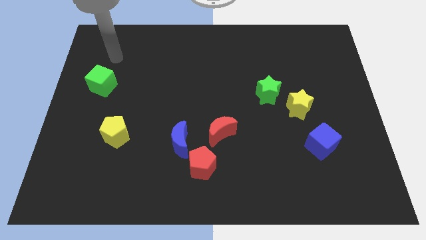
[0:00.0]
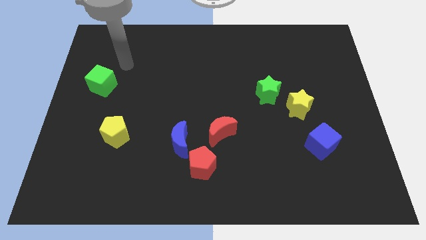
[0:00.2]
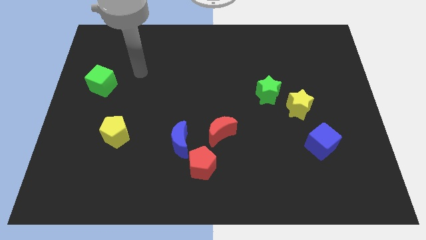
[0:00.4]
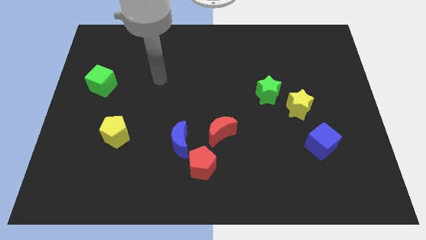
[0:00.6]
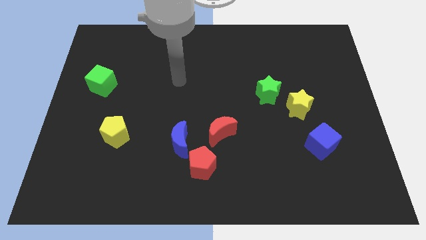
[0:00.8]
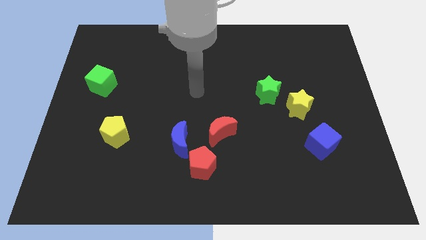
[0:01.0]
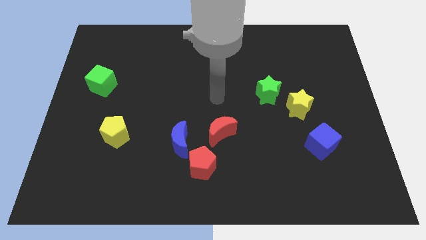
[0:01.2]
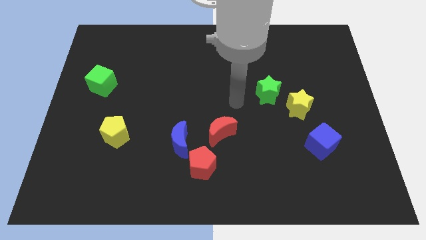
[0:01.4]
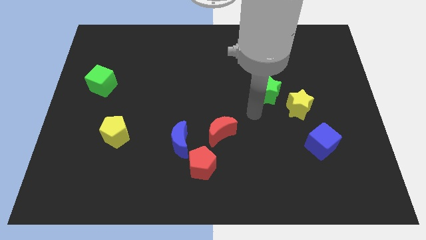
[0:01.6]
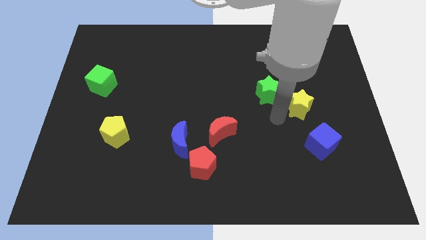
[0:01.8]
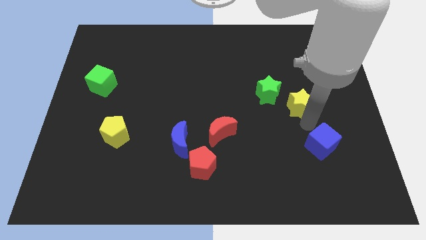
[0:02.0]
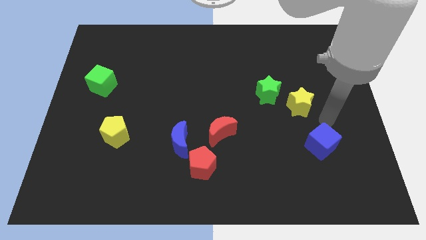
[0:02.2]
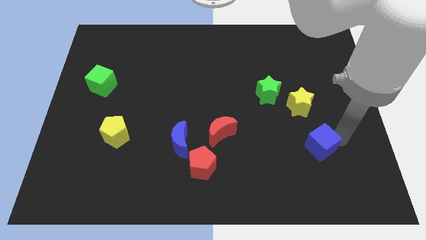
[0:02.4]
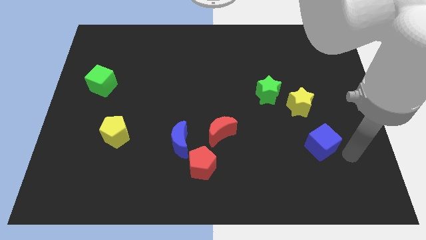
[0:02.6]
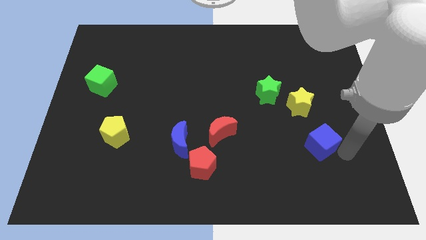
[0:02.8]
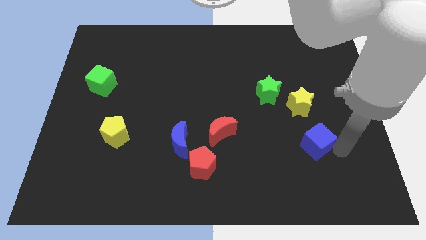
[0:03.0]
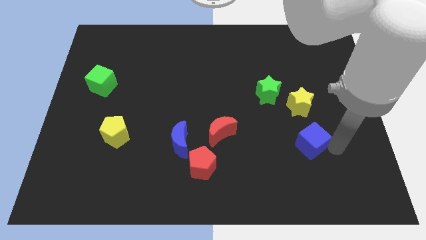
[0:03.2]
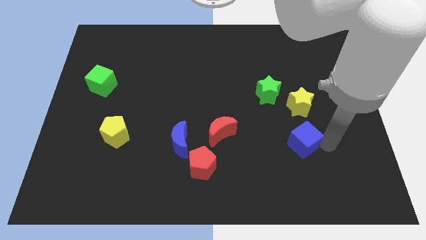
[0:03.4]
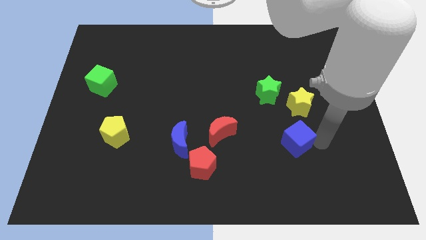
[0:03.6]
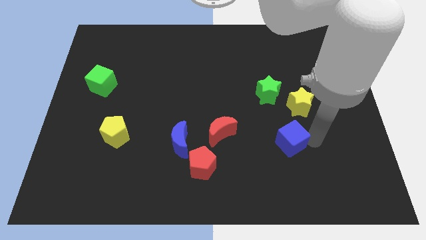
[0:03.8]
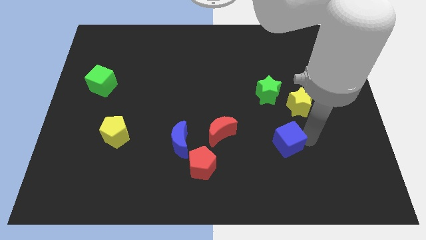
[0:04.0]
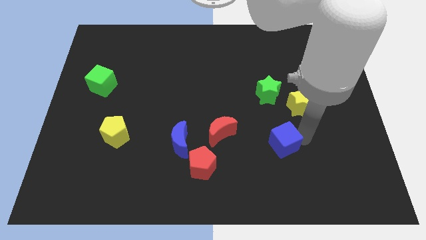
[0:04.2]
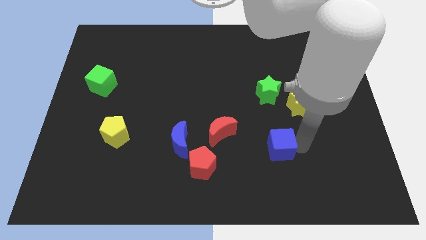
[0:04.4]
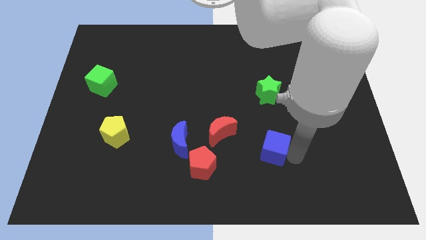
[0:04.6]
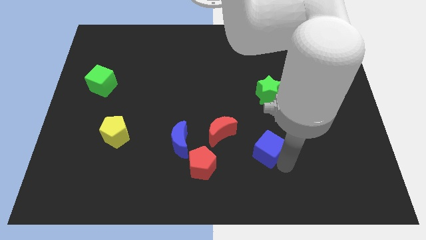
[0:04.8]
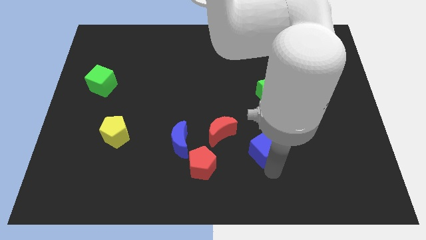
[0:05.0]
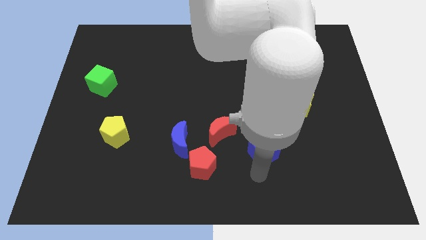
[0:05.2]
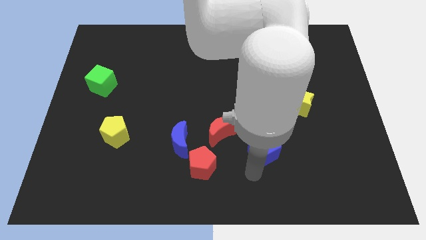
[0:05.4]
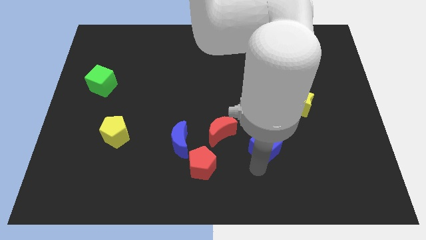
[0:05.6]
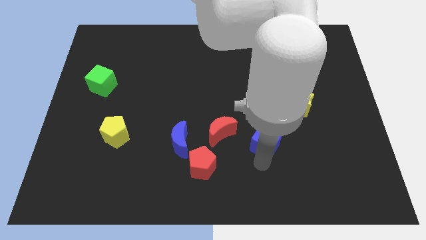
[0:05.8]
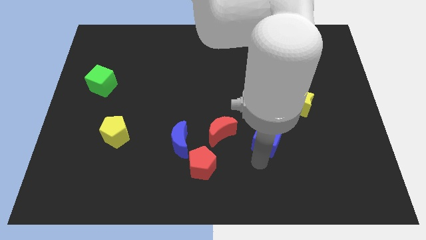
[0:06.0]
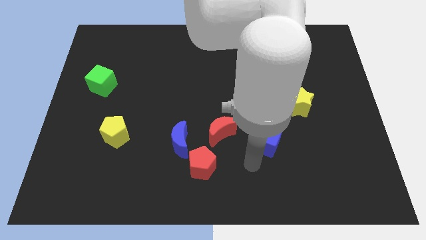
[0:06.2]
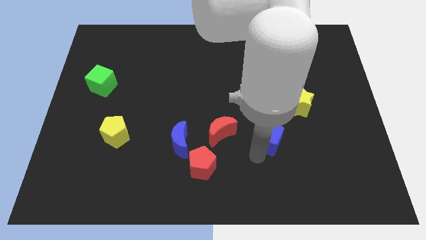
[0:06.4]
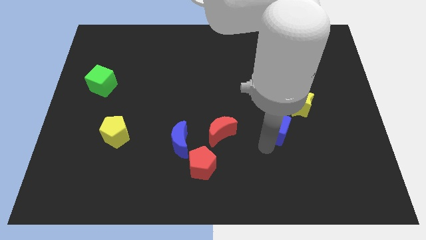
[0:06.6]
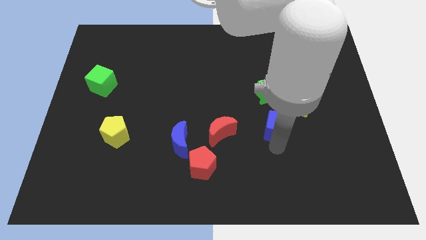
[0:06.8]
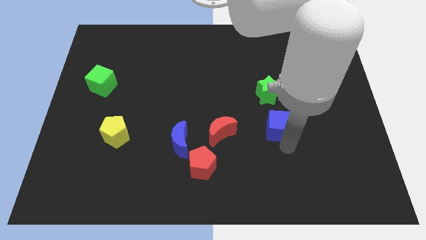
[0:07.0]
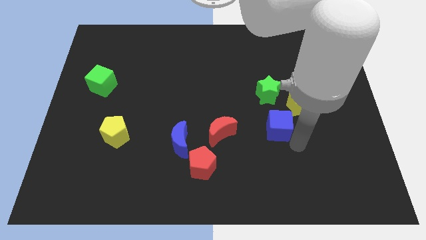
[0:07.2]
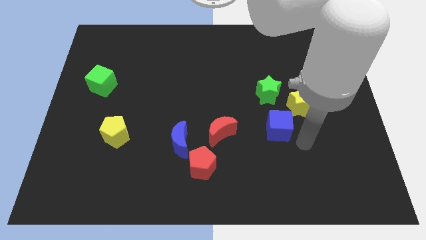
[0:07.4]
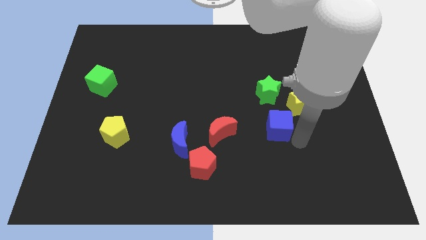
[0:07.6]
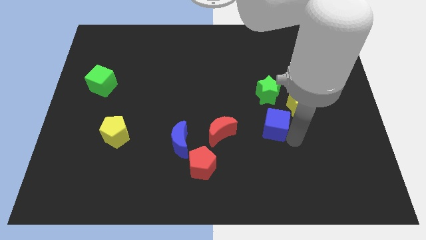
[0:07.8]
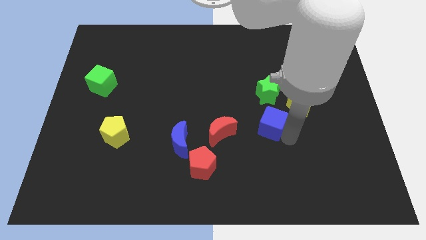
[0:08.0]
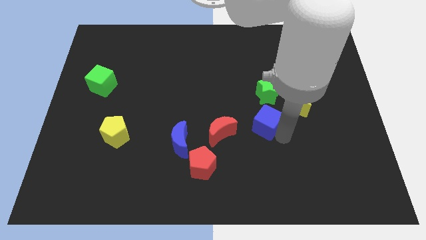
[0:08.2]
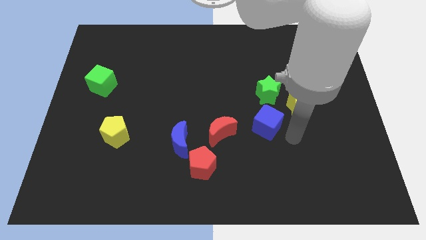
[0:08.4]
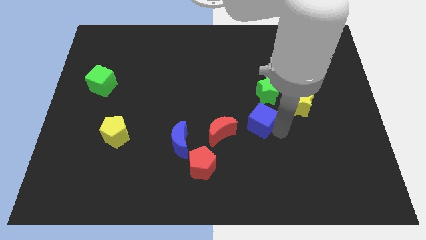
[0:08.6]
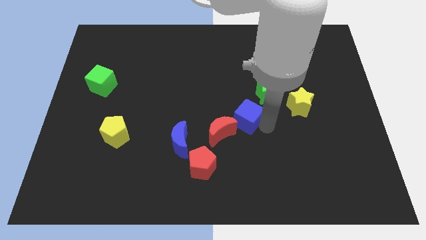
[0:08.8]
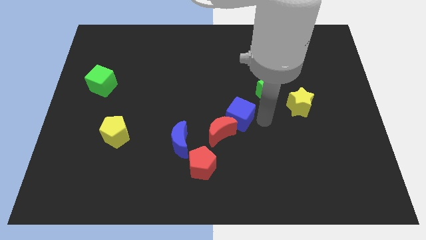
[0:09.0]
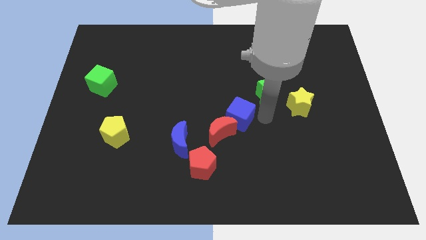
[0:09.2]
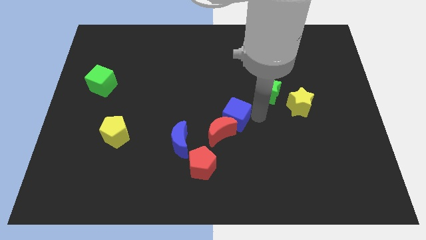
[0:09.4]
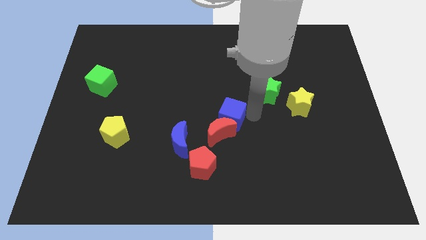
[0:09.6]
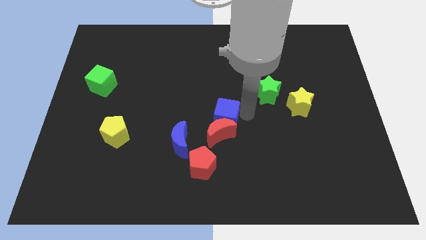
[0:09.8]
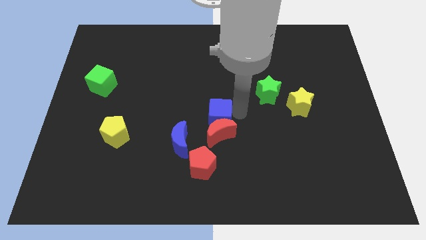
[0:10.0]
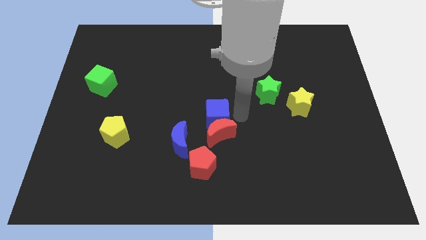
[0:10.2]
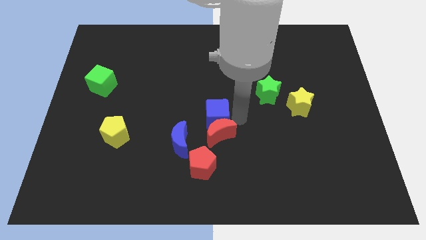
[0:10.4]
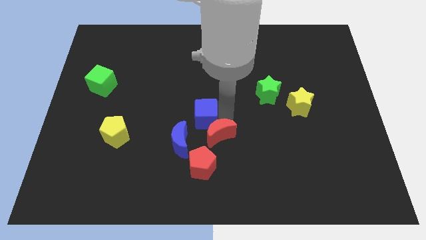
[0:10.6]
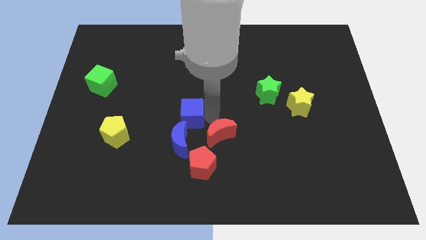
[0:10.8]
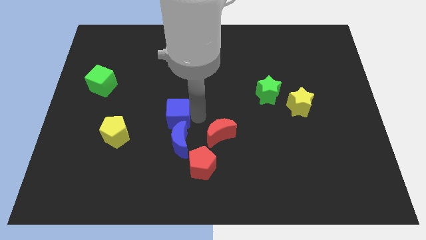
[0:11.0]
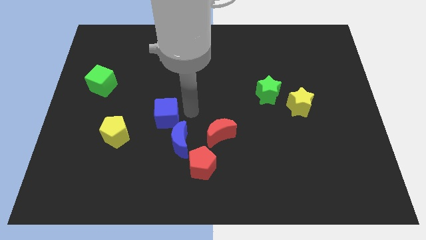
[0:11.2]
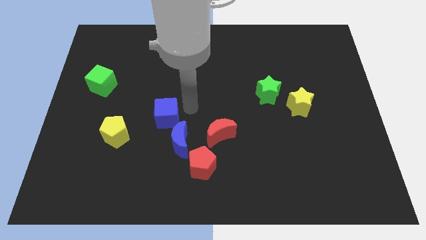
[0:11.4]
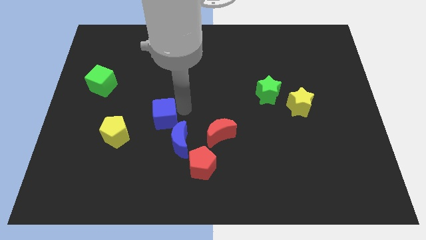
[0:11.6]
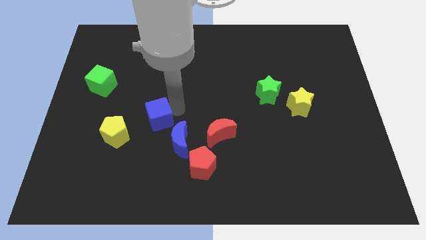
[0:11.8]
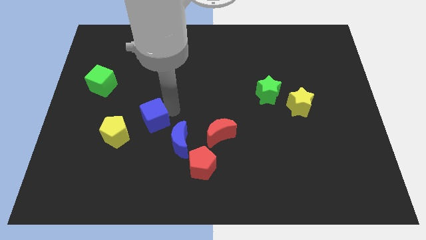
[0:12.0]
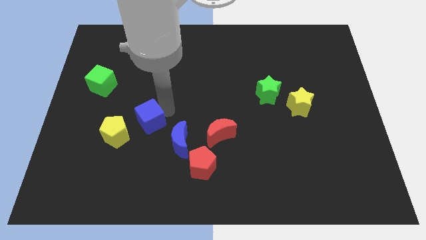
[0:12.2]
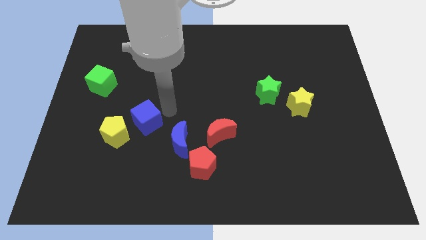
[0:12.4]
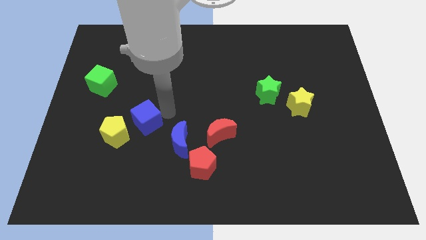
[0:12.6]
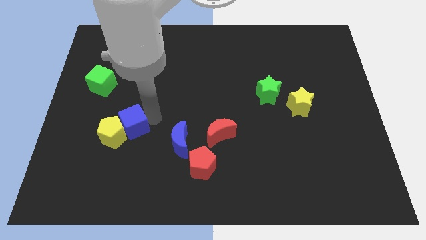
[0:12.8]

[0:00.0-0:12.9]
put the blue cube next to the yellow pentagon

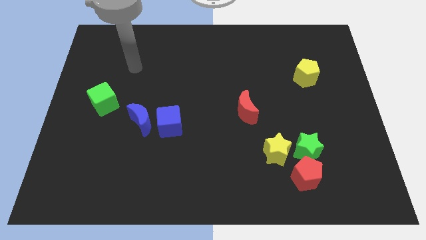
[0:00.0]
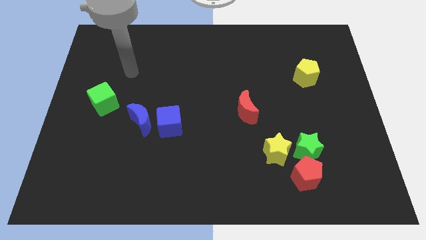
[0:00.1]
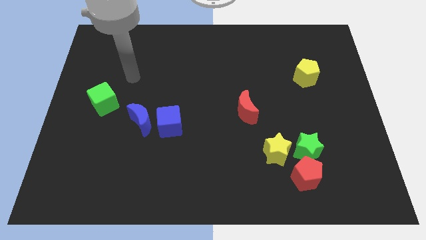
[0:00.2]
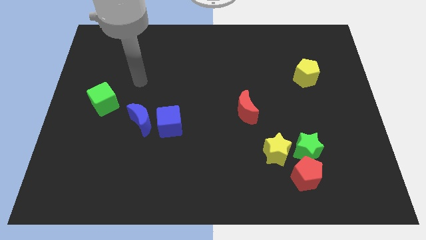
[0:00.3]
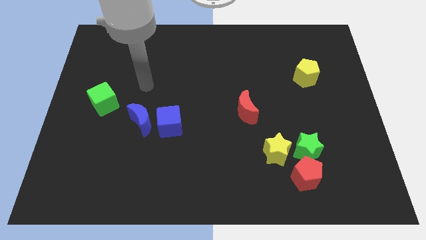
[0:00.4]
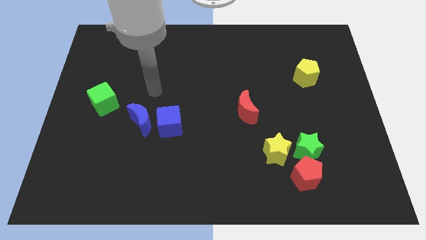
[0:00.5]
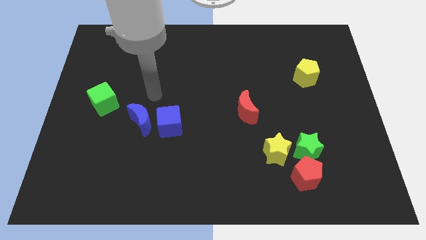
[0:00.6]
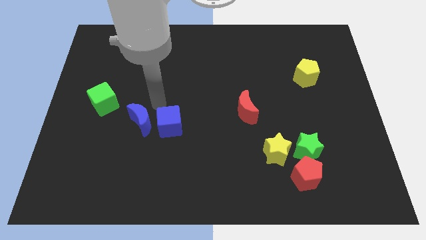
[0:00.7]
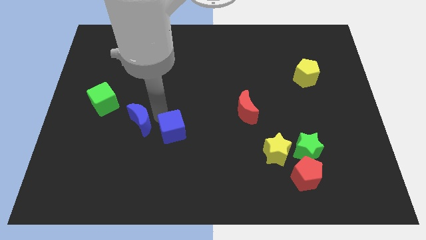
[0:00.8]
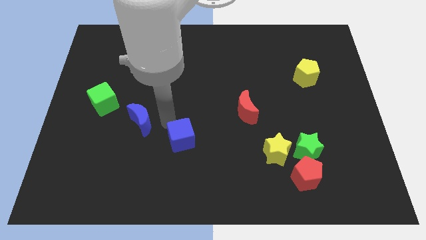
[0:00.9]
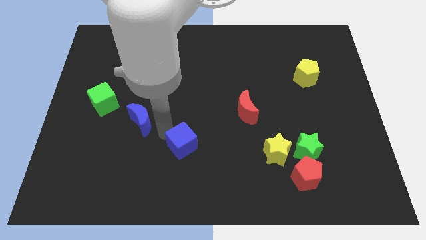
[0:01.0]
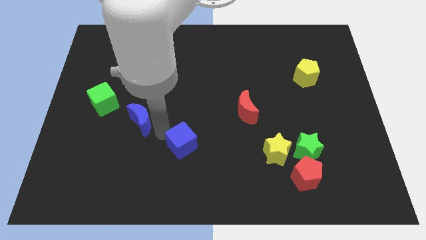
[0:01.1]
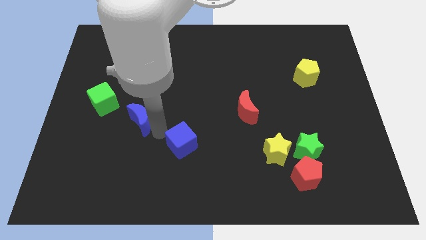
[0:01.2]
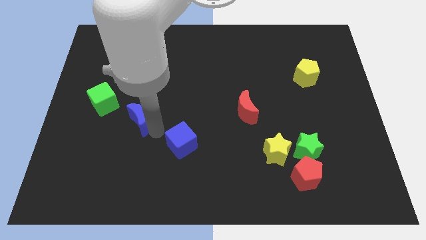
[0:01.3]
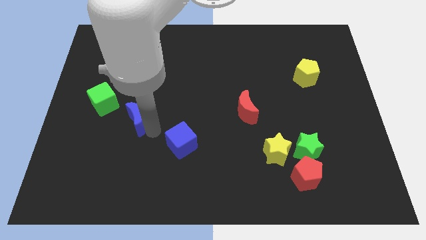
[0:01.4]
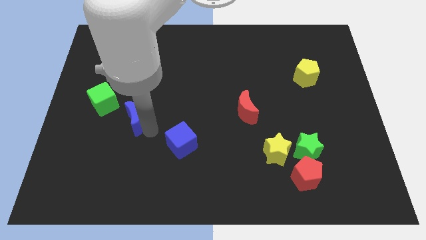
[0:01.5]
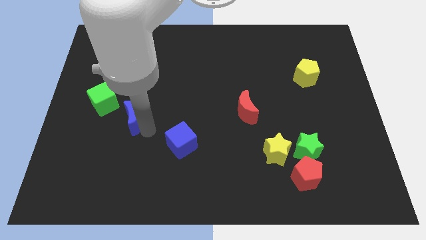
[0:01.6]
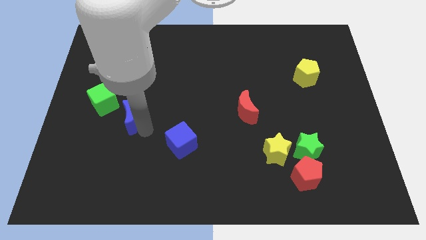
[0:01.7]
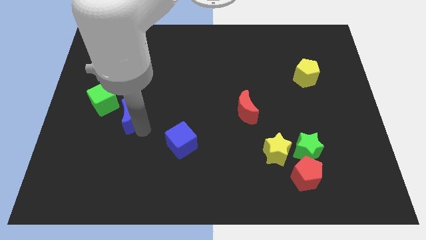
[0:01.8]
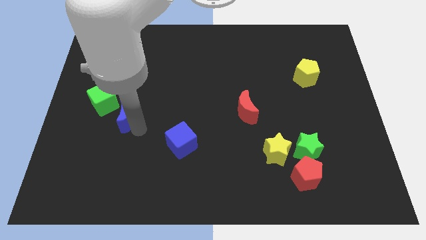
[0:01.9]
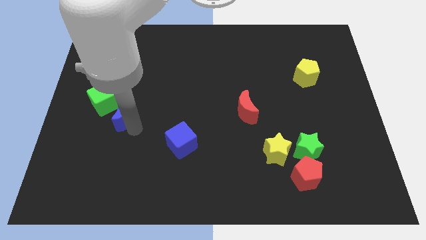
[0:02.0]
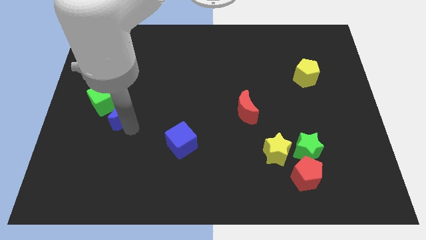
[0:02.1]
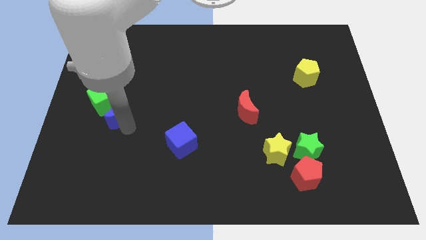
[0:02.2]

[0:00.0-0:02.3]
put the blue moon to the green cube
